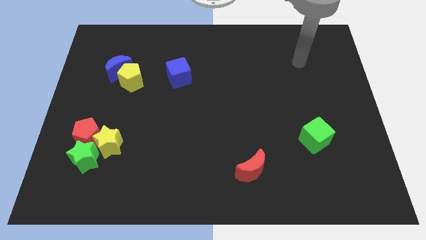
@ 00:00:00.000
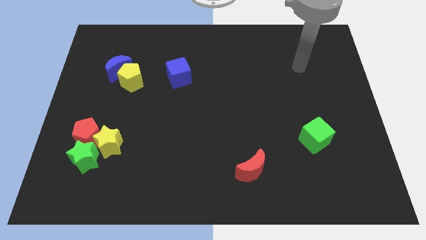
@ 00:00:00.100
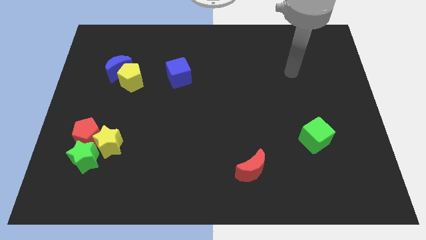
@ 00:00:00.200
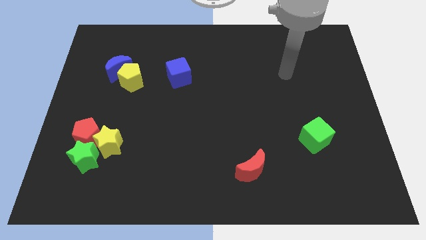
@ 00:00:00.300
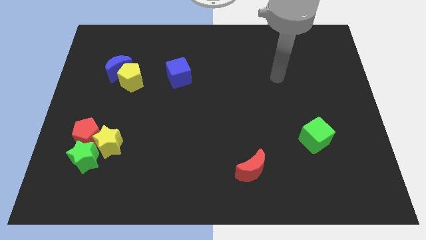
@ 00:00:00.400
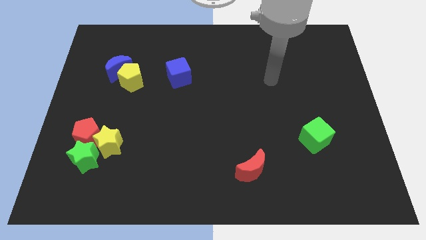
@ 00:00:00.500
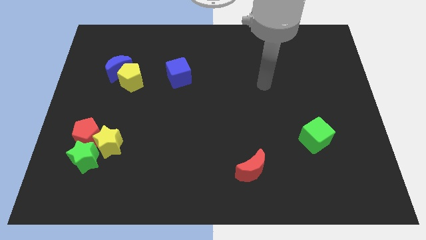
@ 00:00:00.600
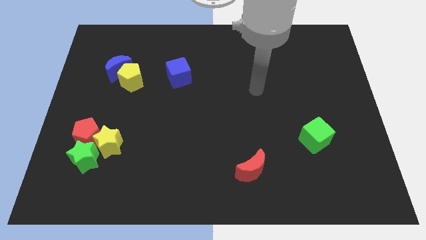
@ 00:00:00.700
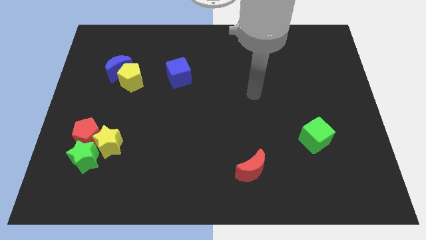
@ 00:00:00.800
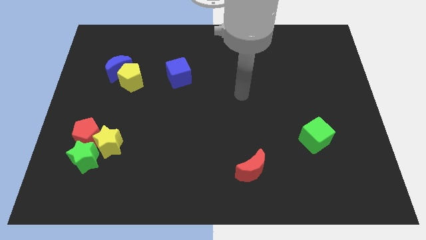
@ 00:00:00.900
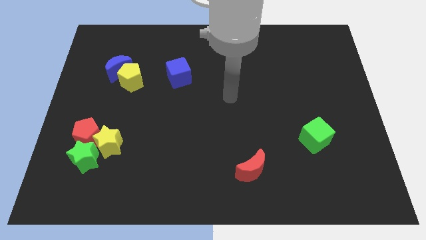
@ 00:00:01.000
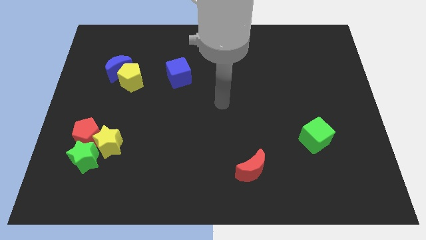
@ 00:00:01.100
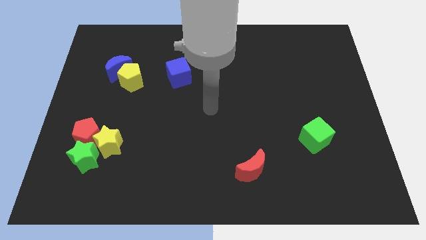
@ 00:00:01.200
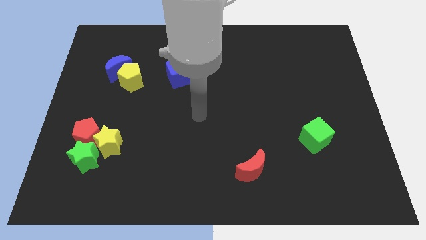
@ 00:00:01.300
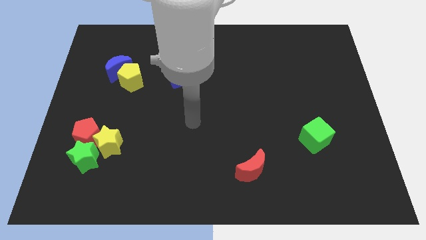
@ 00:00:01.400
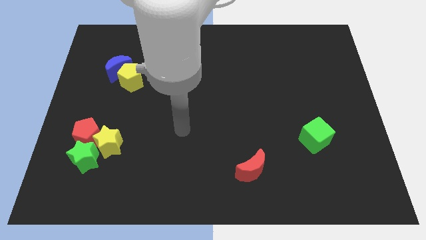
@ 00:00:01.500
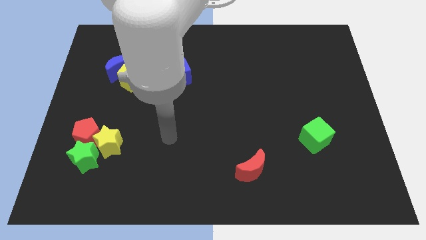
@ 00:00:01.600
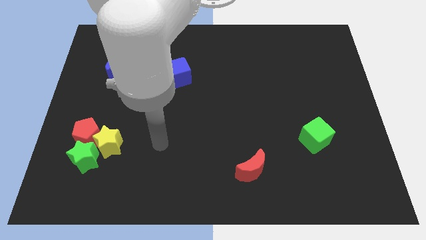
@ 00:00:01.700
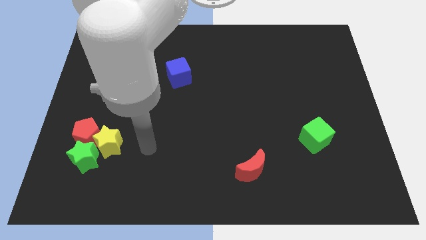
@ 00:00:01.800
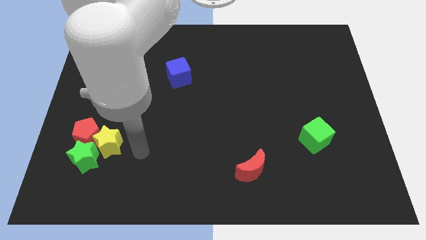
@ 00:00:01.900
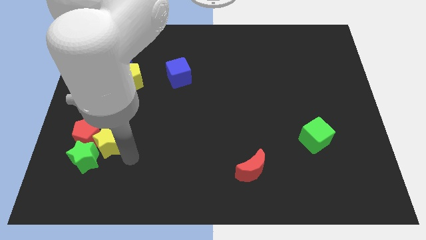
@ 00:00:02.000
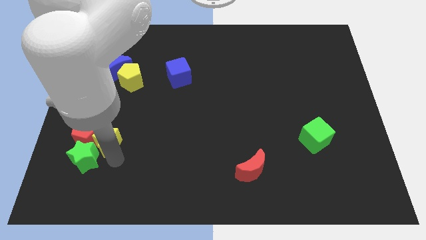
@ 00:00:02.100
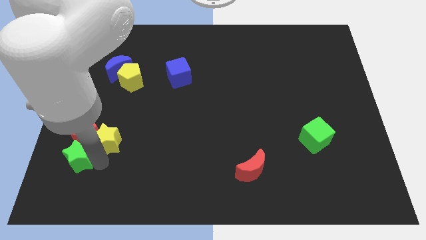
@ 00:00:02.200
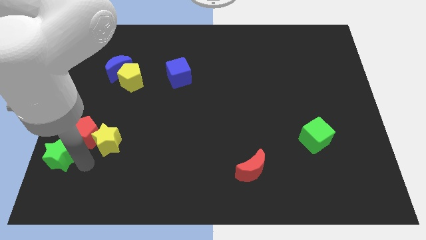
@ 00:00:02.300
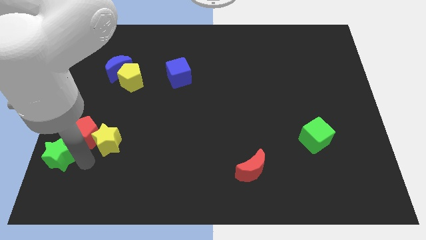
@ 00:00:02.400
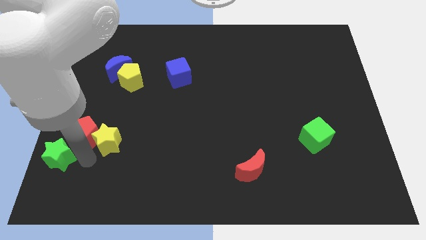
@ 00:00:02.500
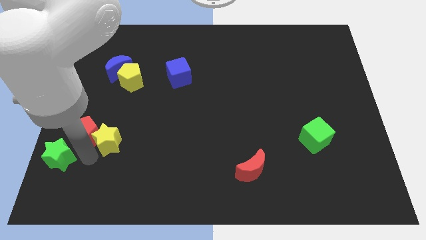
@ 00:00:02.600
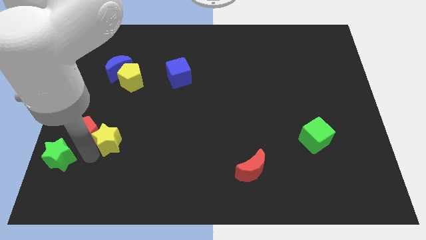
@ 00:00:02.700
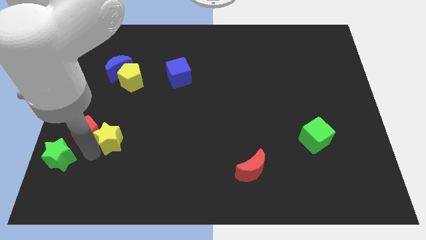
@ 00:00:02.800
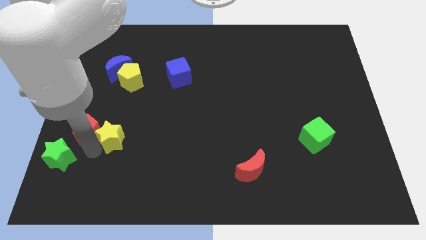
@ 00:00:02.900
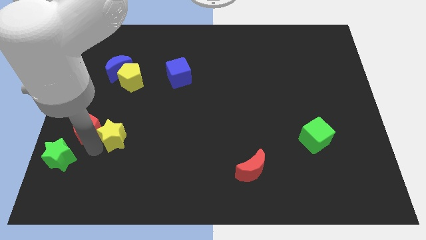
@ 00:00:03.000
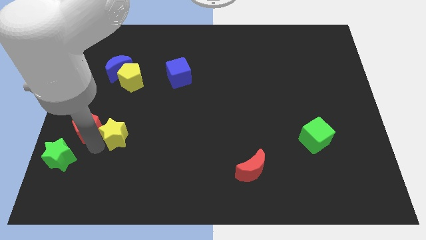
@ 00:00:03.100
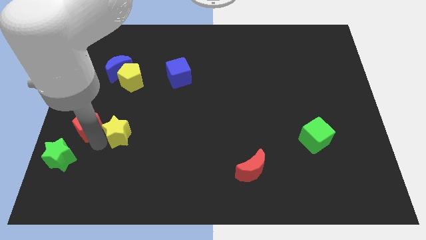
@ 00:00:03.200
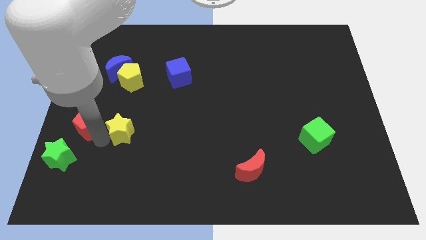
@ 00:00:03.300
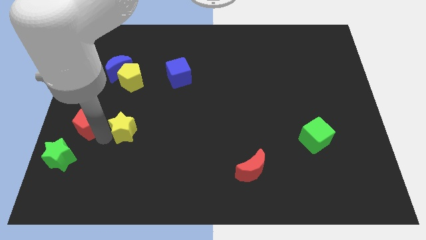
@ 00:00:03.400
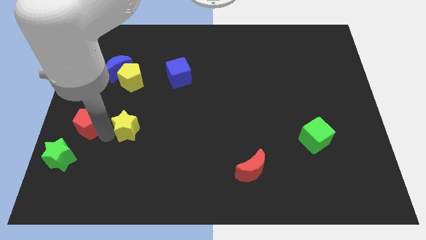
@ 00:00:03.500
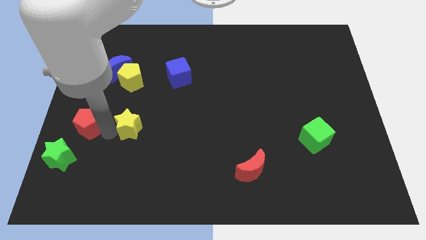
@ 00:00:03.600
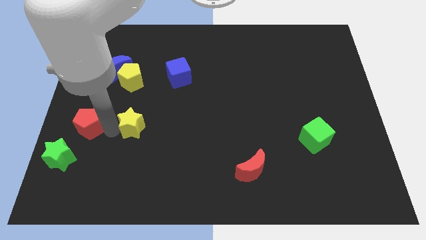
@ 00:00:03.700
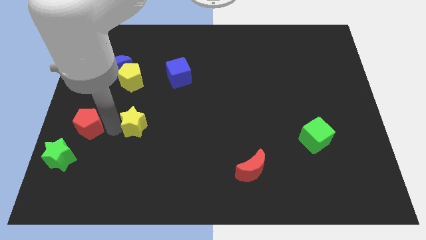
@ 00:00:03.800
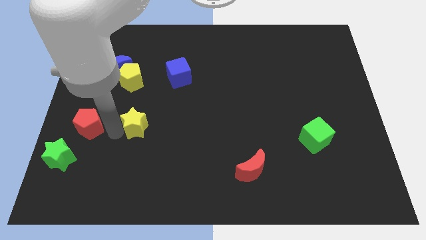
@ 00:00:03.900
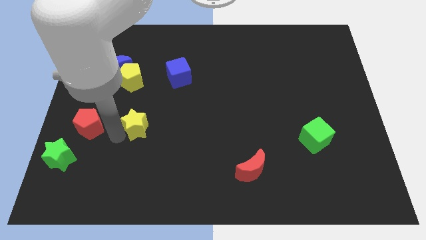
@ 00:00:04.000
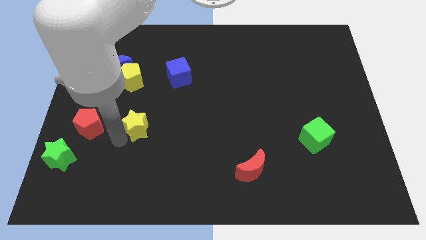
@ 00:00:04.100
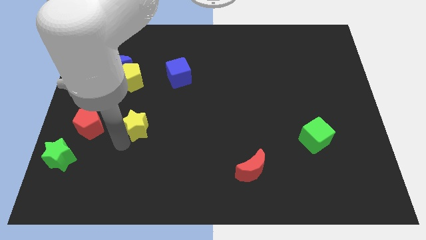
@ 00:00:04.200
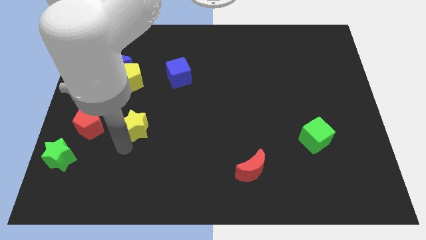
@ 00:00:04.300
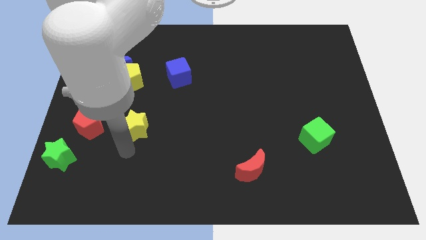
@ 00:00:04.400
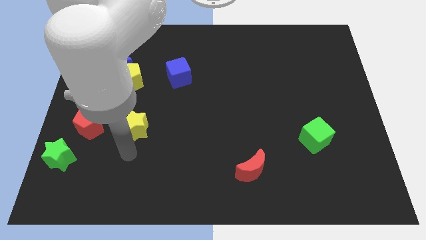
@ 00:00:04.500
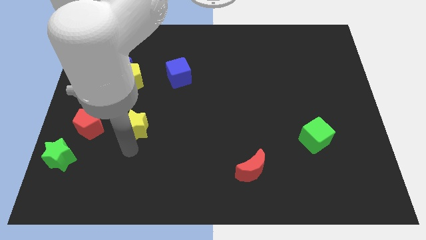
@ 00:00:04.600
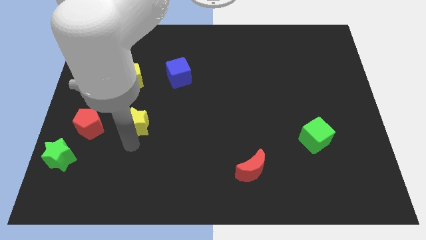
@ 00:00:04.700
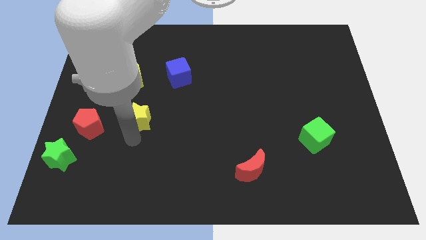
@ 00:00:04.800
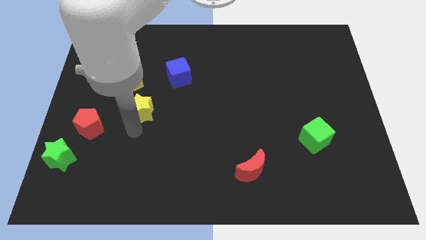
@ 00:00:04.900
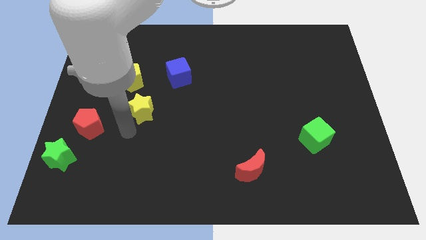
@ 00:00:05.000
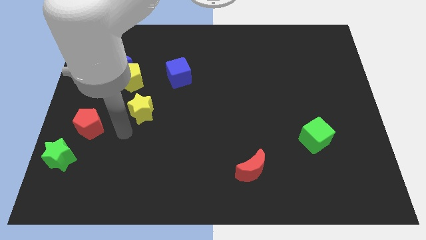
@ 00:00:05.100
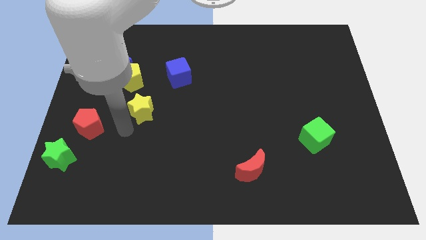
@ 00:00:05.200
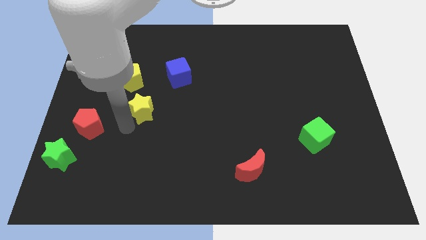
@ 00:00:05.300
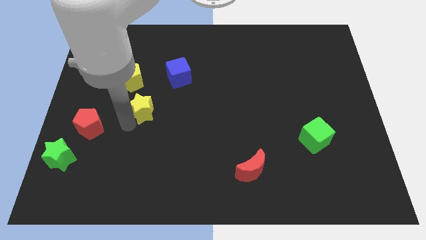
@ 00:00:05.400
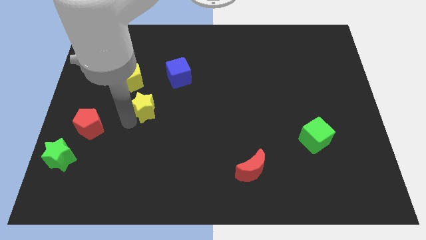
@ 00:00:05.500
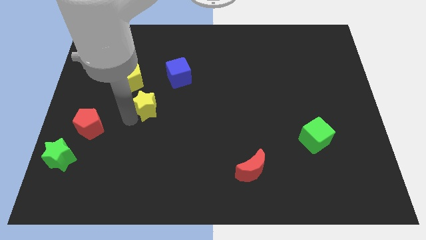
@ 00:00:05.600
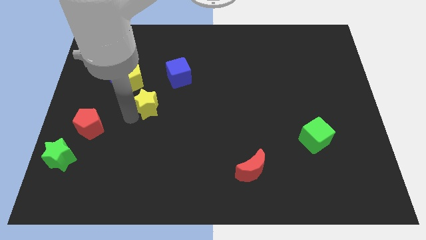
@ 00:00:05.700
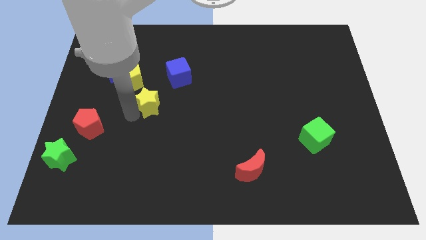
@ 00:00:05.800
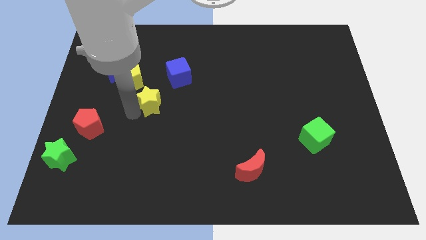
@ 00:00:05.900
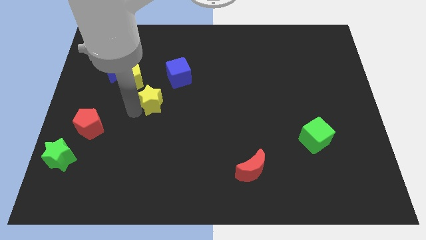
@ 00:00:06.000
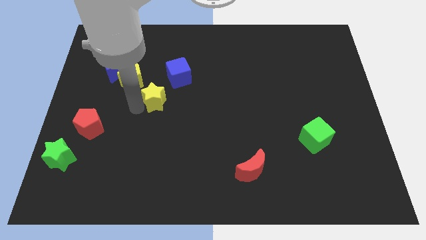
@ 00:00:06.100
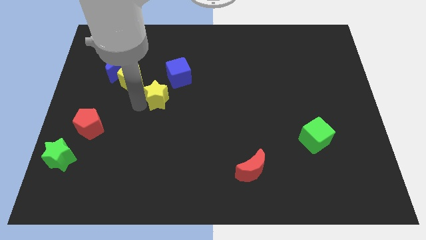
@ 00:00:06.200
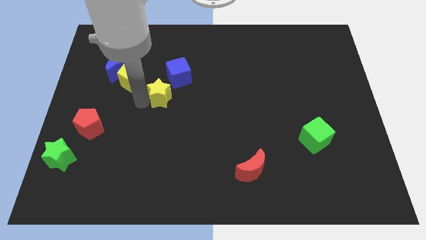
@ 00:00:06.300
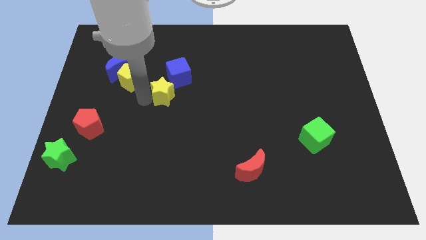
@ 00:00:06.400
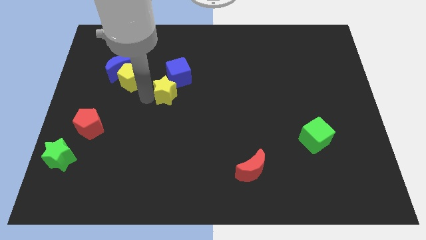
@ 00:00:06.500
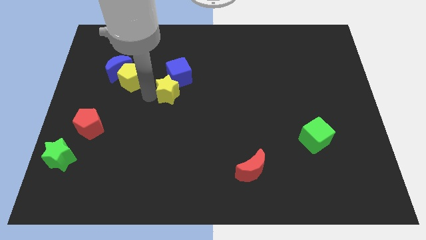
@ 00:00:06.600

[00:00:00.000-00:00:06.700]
move the yellow star to the blue cube
